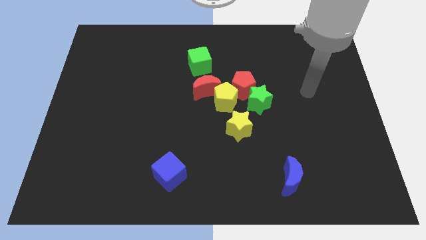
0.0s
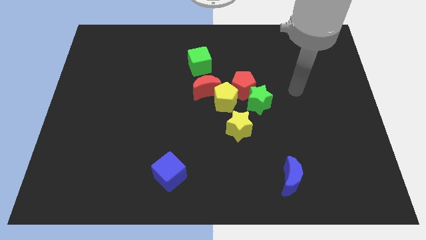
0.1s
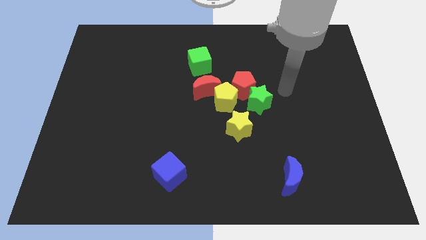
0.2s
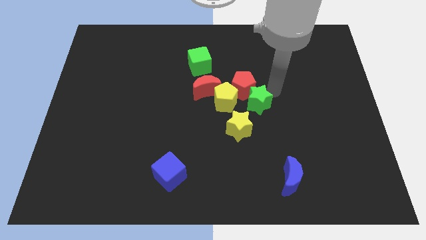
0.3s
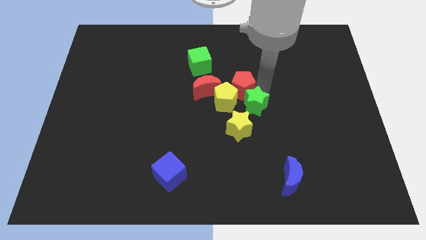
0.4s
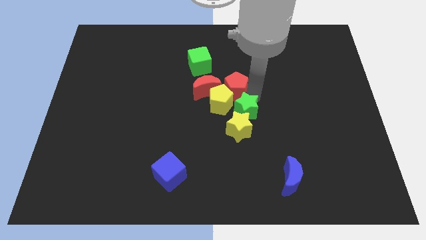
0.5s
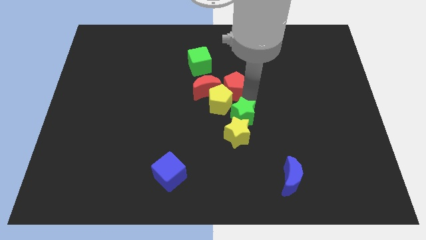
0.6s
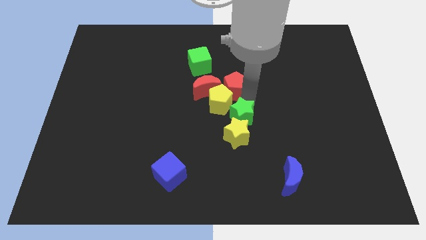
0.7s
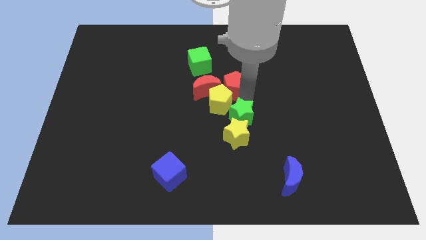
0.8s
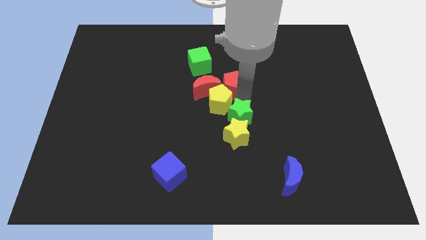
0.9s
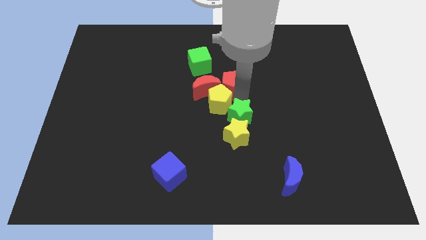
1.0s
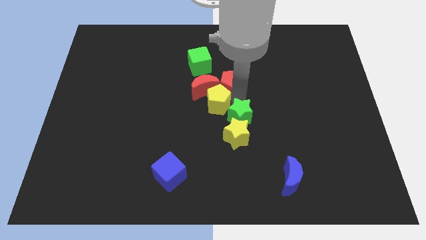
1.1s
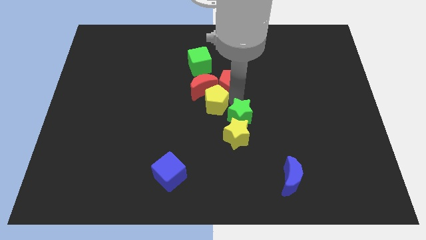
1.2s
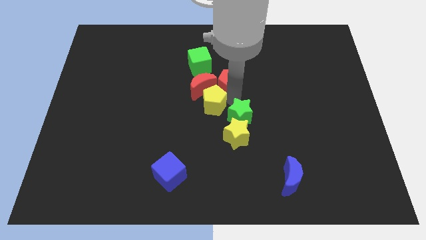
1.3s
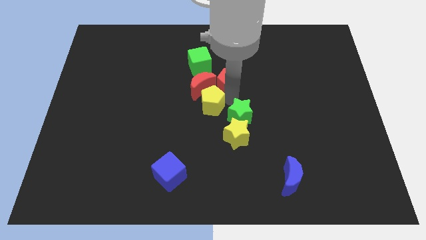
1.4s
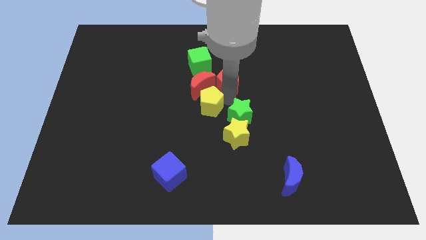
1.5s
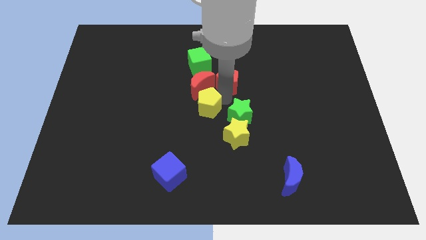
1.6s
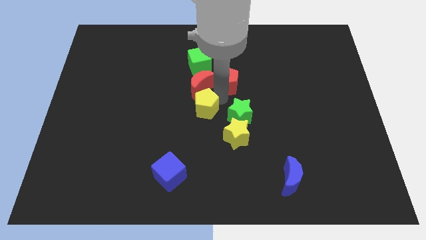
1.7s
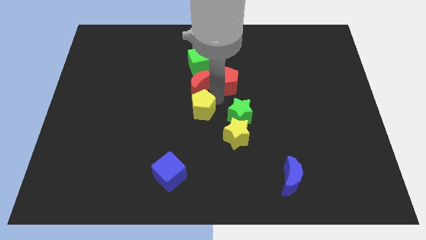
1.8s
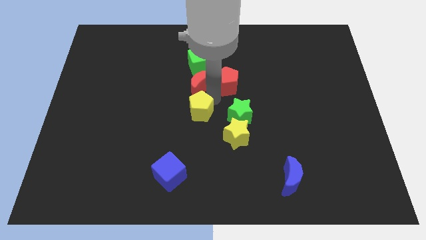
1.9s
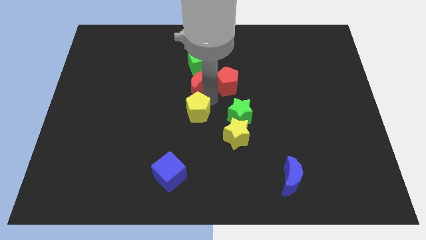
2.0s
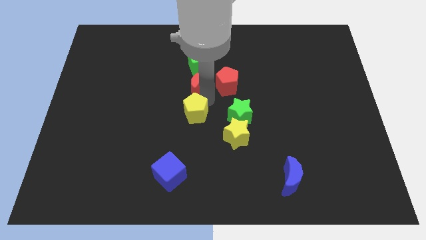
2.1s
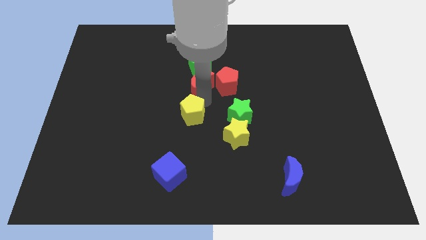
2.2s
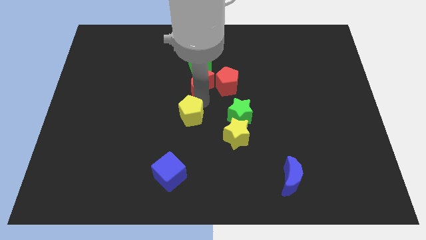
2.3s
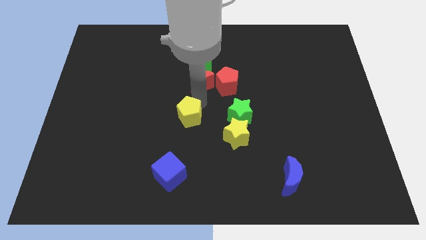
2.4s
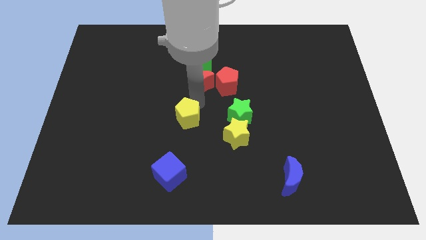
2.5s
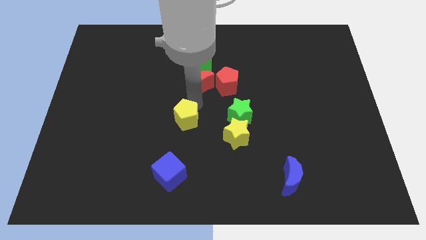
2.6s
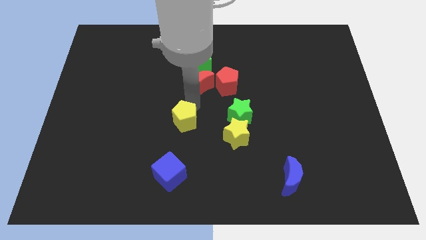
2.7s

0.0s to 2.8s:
move the yellow pentagon away from the clump

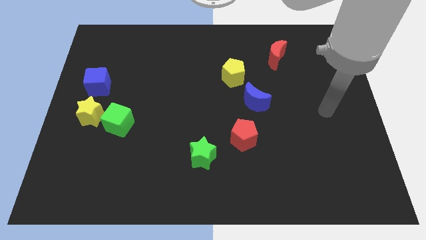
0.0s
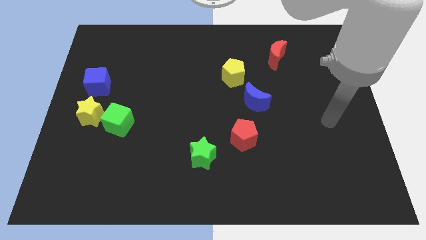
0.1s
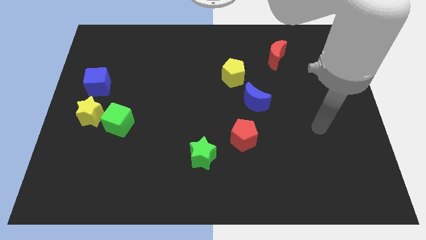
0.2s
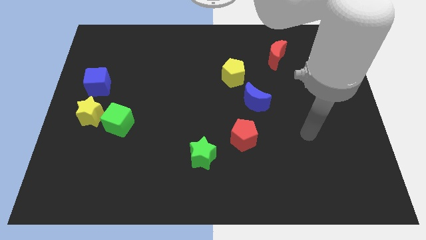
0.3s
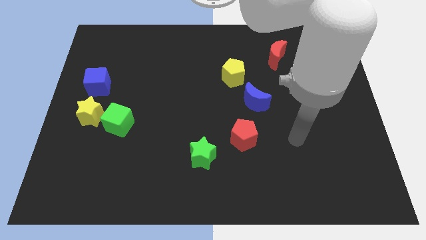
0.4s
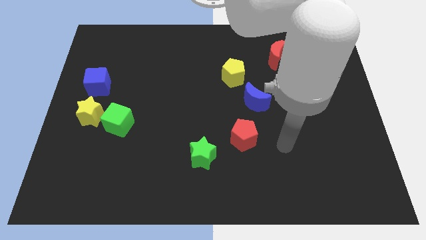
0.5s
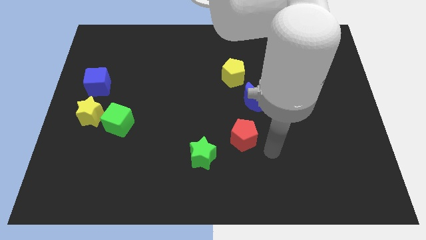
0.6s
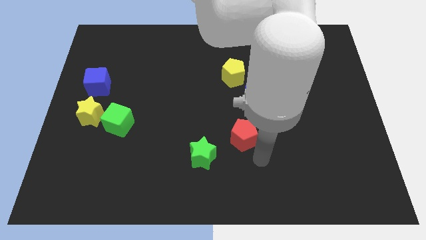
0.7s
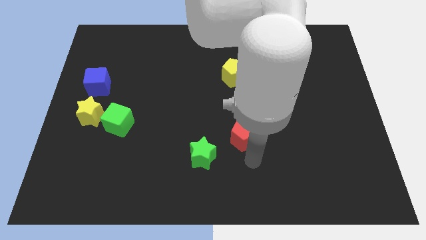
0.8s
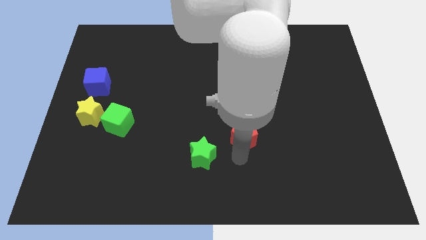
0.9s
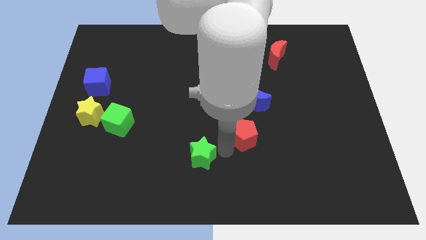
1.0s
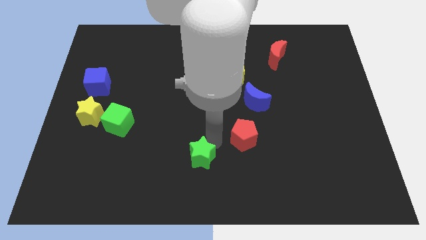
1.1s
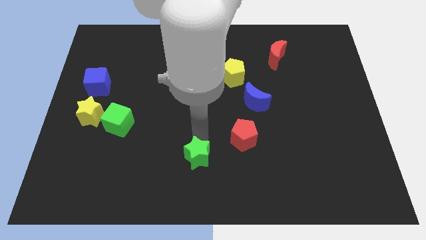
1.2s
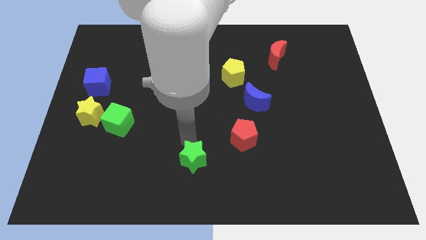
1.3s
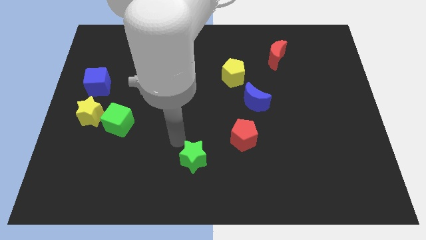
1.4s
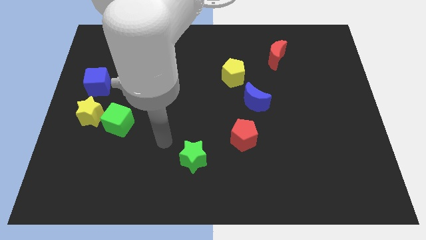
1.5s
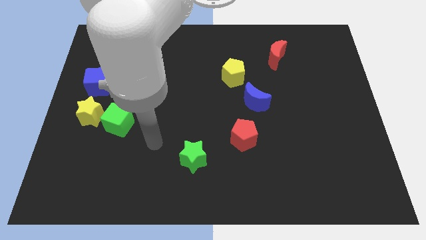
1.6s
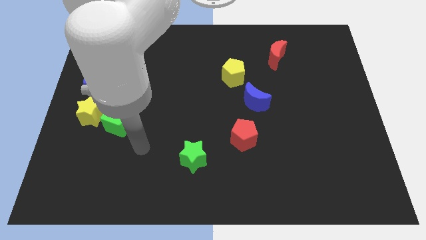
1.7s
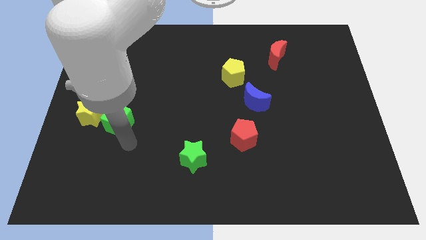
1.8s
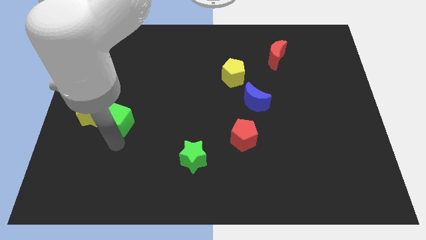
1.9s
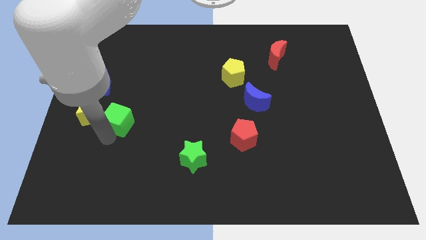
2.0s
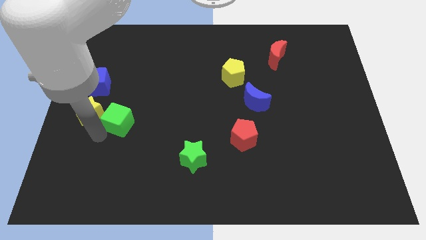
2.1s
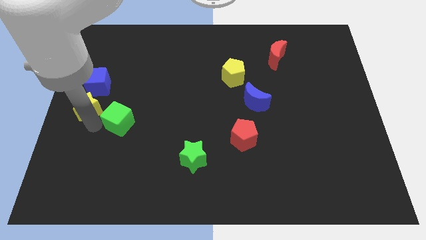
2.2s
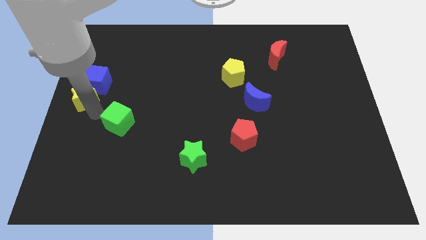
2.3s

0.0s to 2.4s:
separate the green cube from the yellow star

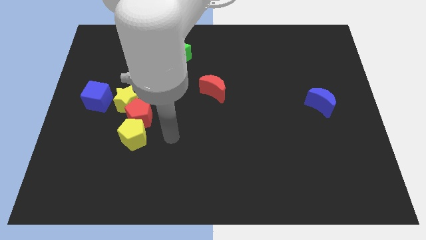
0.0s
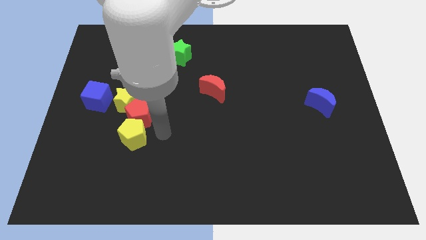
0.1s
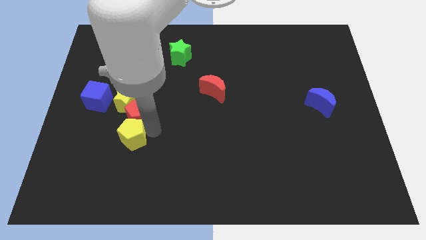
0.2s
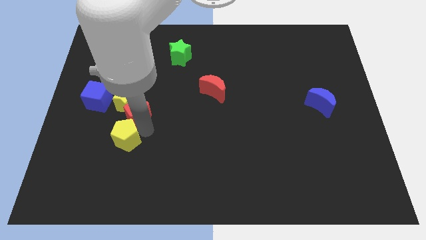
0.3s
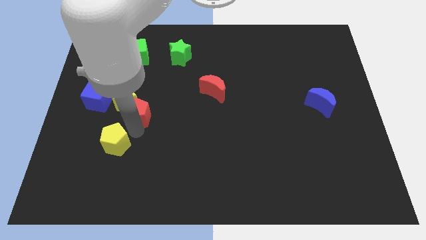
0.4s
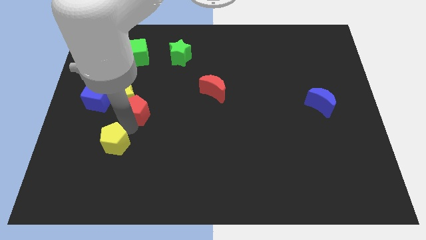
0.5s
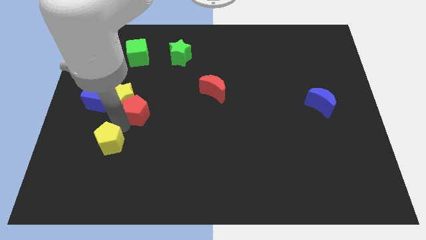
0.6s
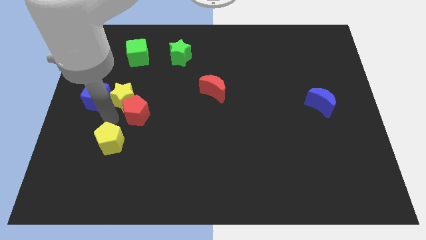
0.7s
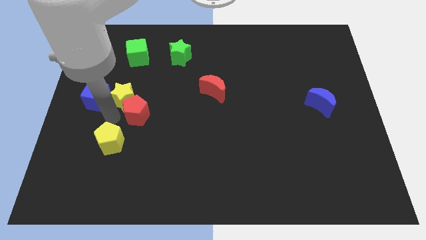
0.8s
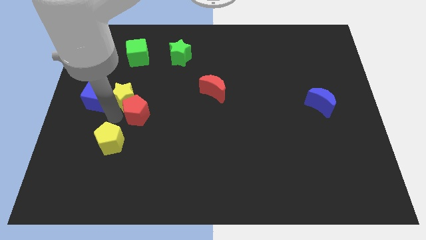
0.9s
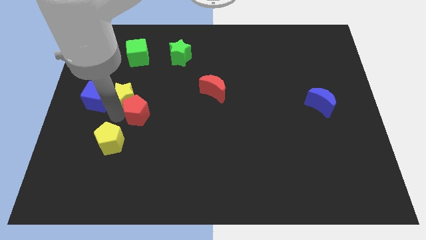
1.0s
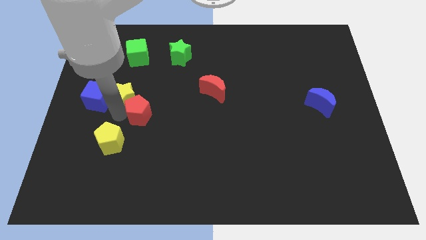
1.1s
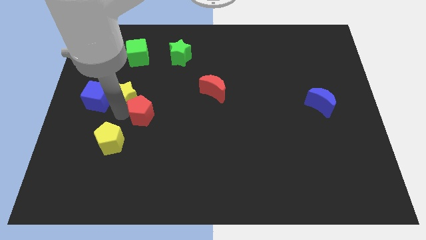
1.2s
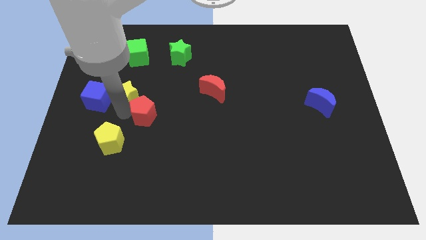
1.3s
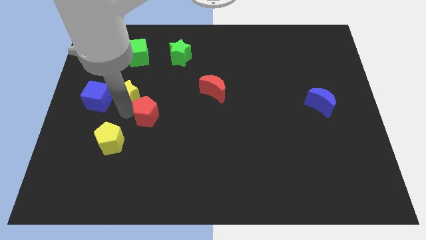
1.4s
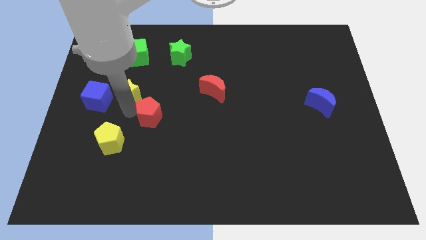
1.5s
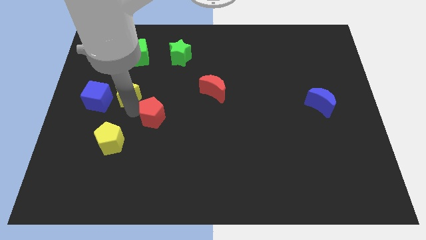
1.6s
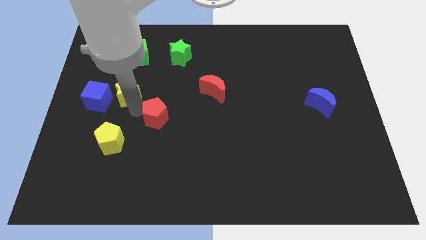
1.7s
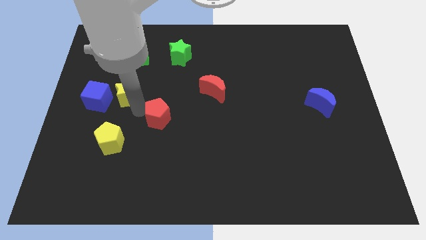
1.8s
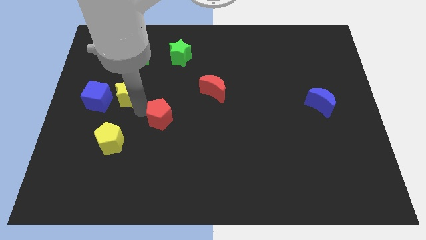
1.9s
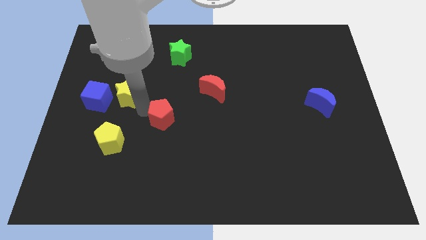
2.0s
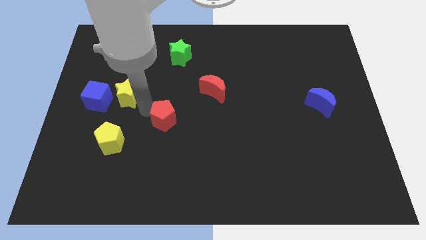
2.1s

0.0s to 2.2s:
pull the red pentagon apart from the yellow star and yellow pentagon

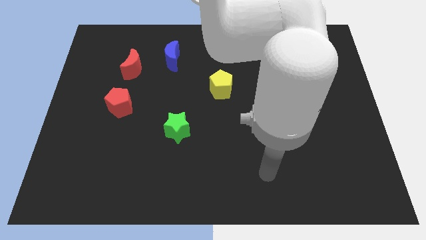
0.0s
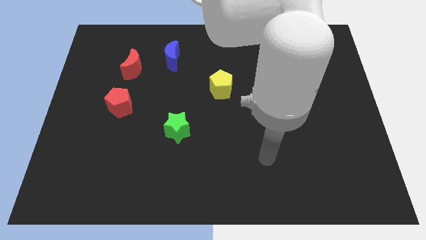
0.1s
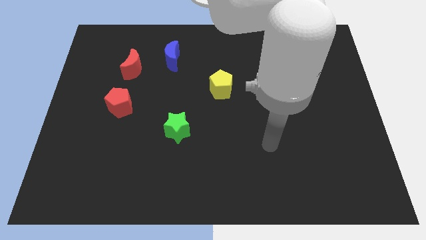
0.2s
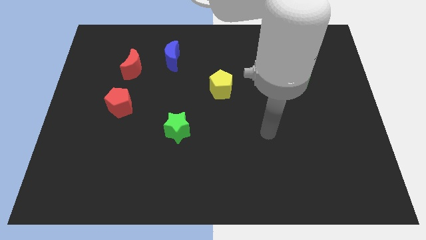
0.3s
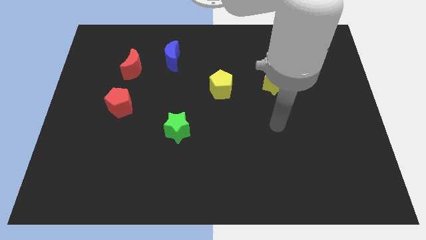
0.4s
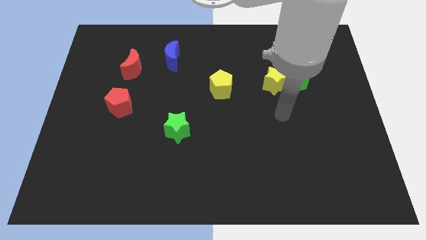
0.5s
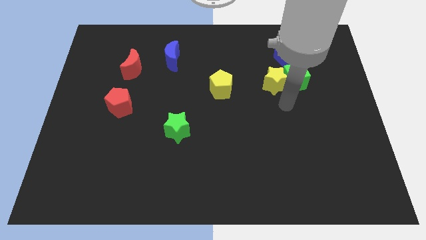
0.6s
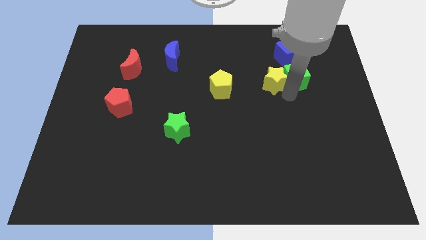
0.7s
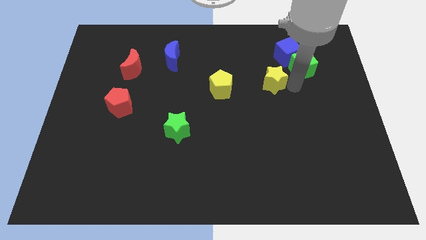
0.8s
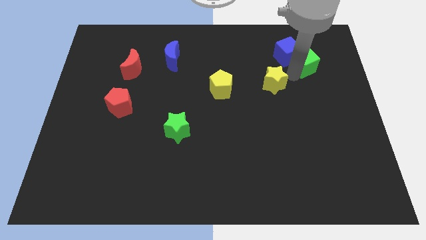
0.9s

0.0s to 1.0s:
pull the yellow star apart from the green cube

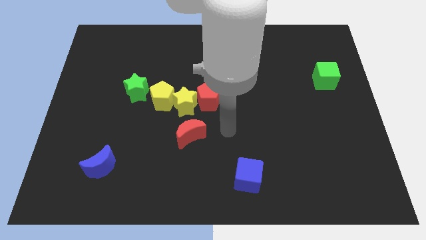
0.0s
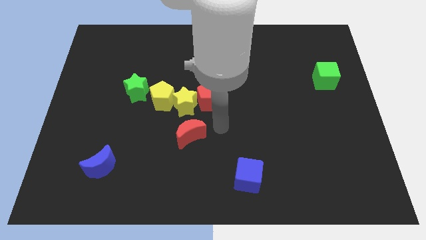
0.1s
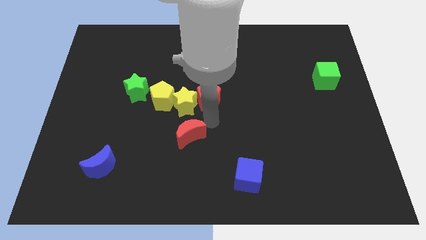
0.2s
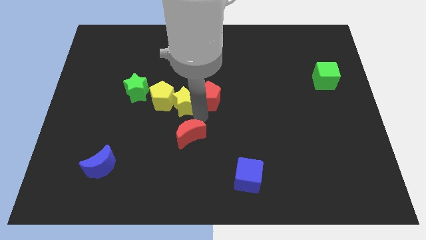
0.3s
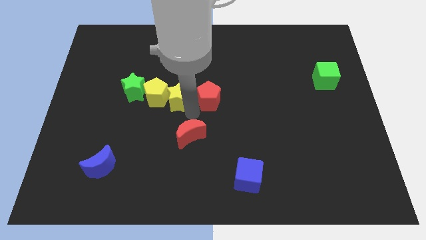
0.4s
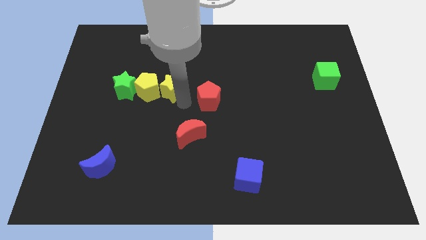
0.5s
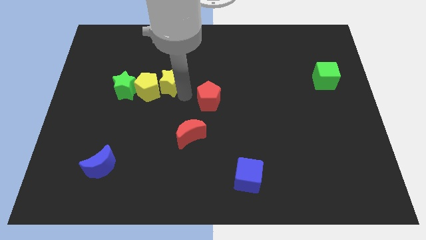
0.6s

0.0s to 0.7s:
separate the red pentagon from the yellow star

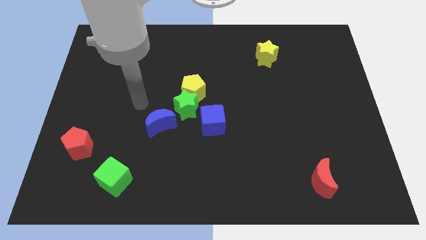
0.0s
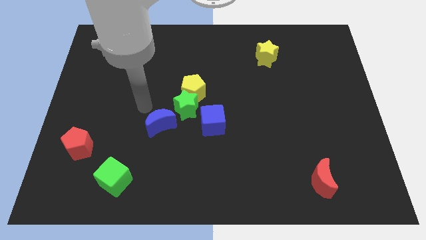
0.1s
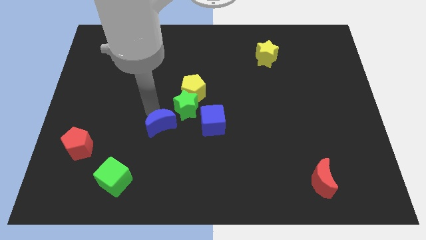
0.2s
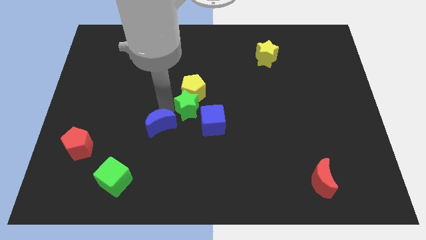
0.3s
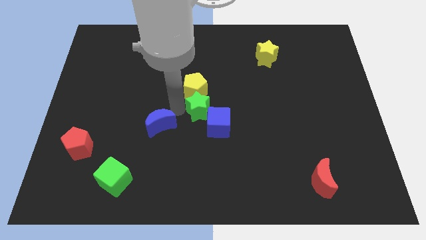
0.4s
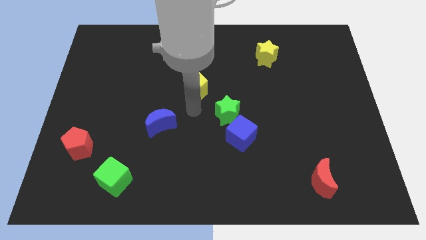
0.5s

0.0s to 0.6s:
separate the yellow pentagon from the green star
